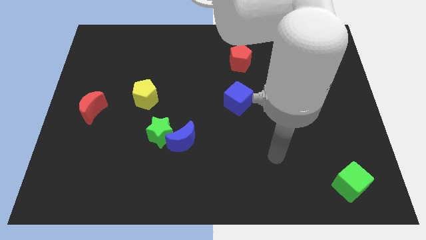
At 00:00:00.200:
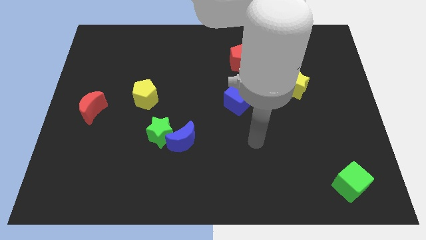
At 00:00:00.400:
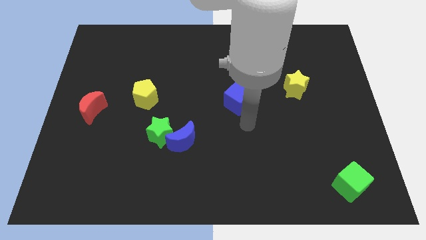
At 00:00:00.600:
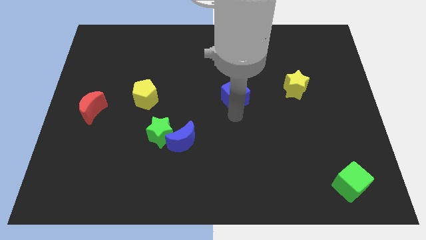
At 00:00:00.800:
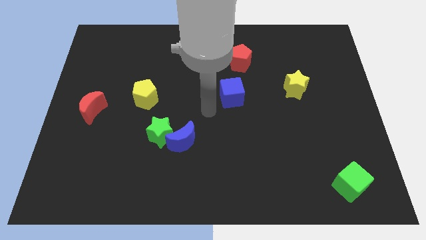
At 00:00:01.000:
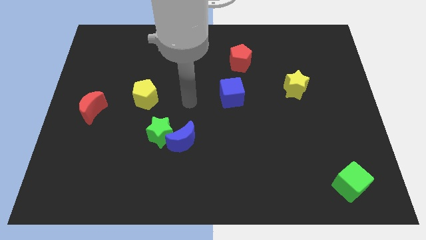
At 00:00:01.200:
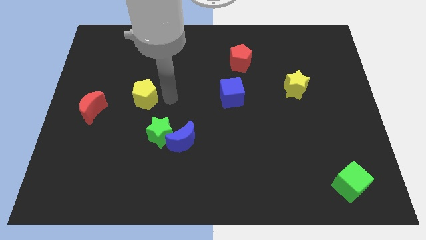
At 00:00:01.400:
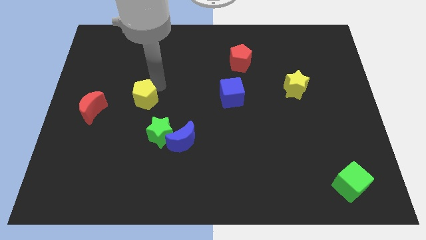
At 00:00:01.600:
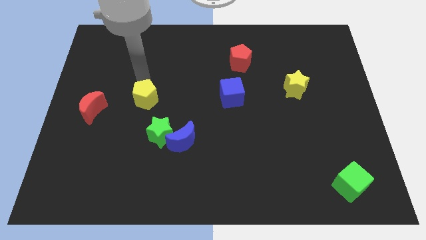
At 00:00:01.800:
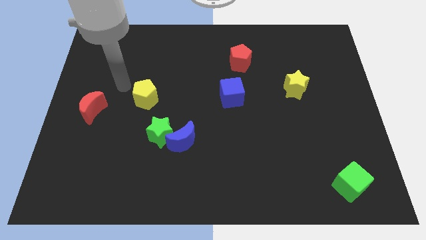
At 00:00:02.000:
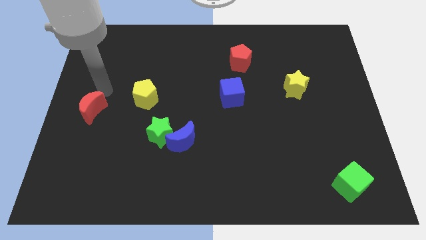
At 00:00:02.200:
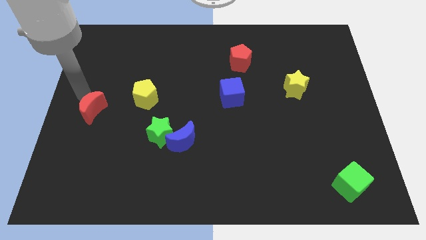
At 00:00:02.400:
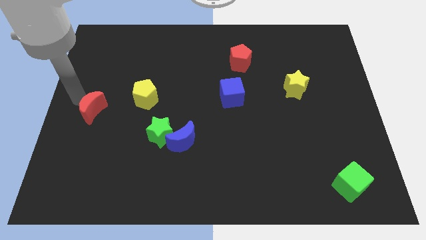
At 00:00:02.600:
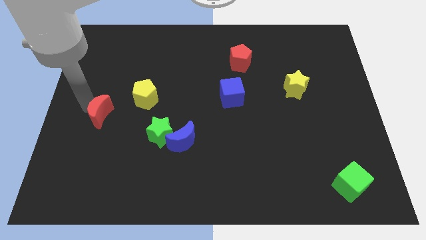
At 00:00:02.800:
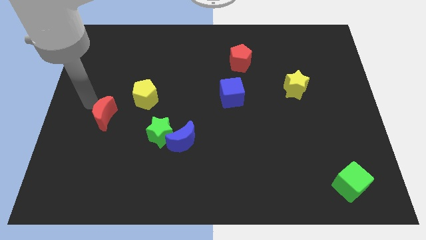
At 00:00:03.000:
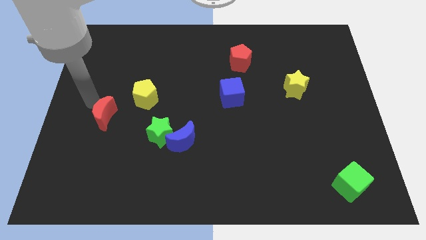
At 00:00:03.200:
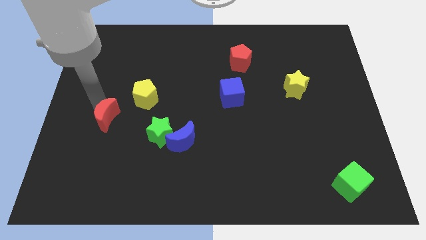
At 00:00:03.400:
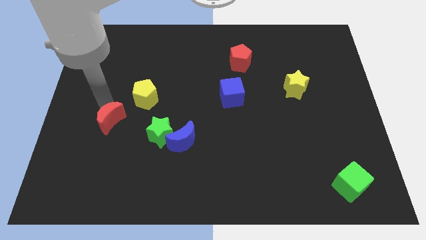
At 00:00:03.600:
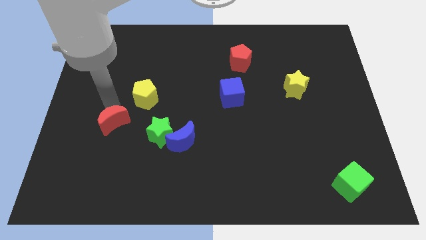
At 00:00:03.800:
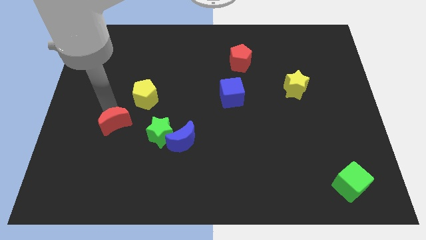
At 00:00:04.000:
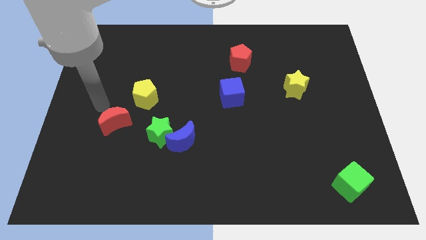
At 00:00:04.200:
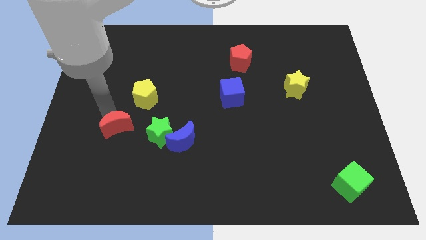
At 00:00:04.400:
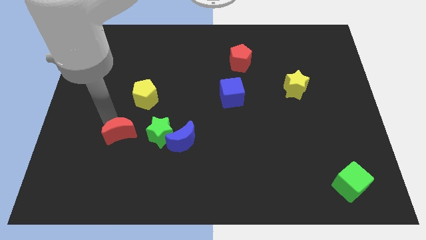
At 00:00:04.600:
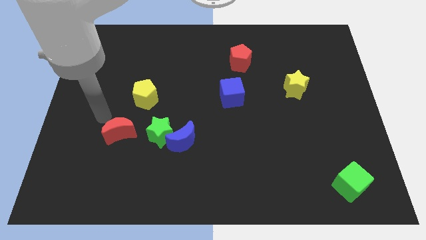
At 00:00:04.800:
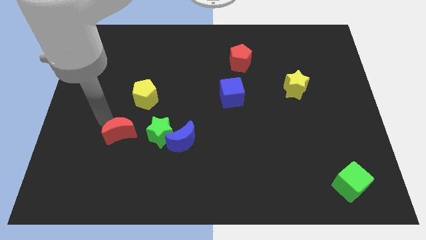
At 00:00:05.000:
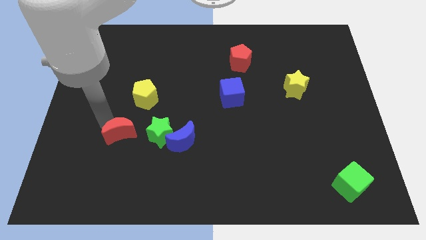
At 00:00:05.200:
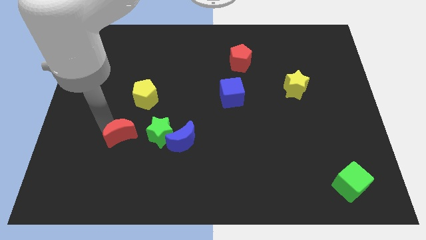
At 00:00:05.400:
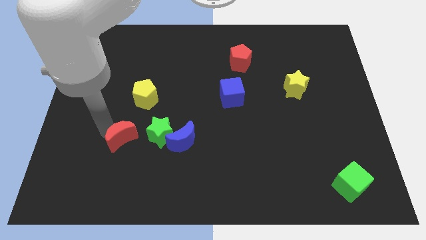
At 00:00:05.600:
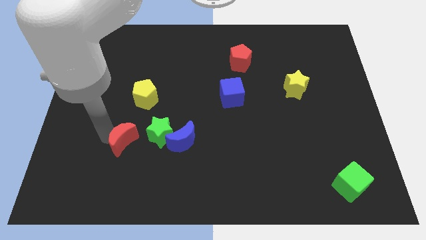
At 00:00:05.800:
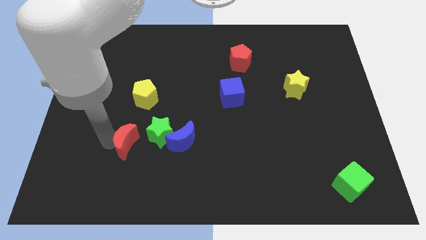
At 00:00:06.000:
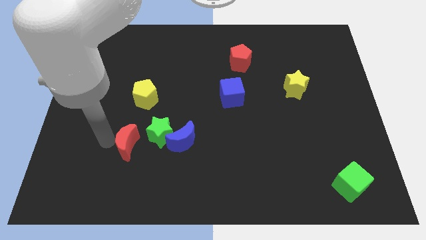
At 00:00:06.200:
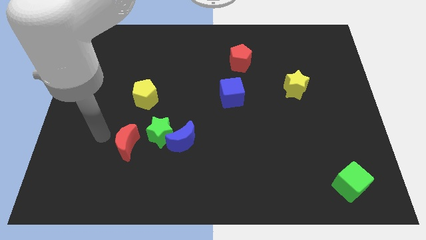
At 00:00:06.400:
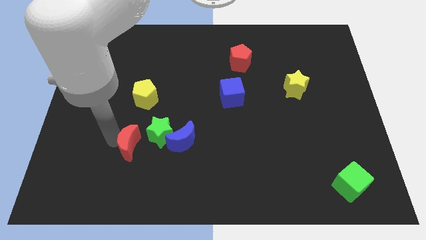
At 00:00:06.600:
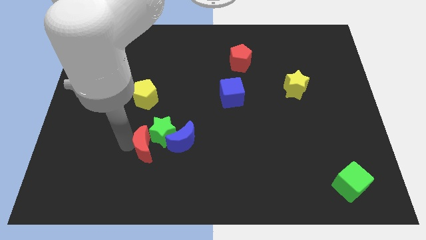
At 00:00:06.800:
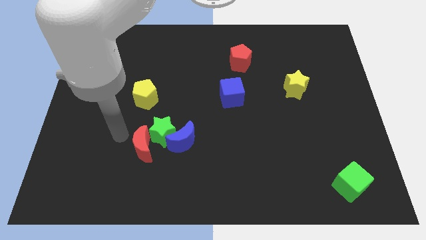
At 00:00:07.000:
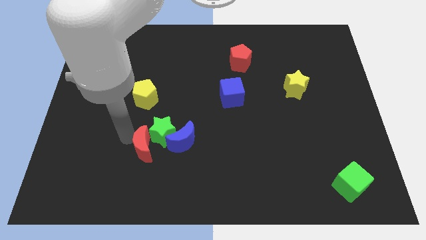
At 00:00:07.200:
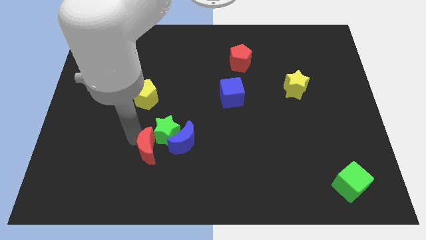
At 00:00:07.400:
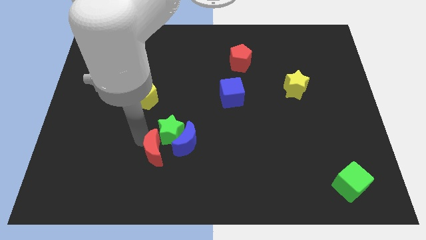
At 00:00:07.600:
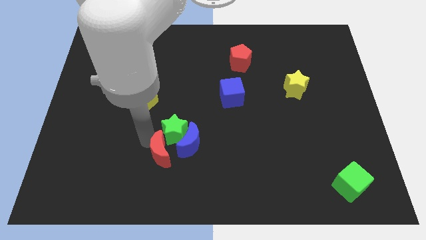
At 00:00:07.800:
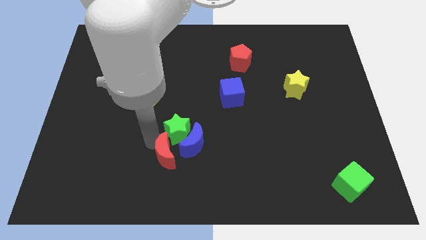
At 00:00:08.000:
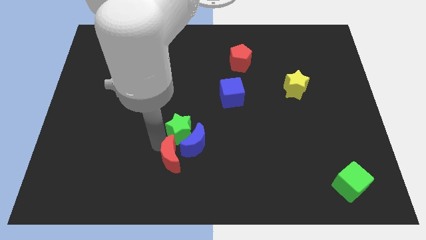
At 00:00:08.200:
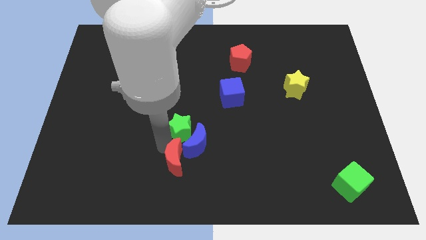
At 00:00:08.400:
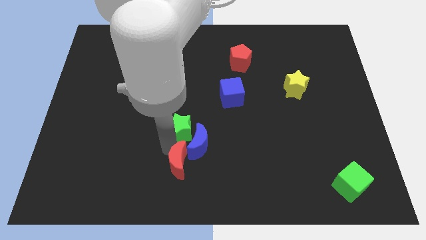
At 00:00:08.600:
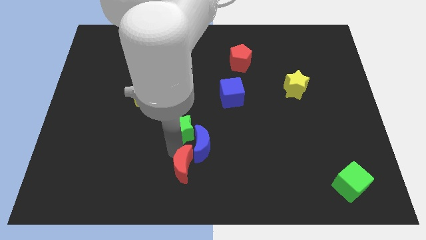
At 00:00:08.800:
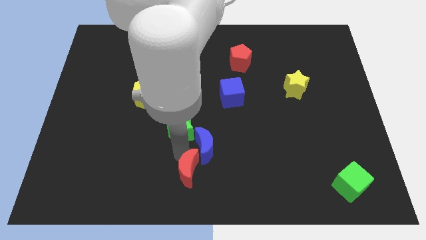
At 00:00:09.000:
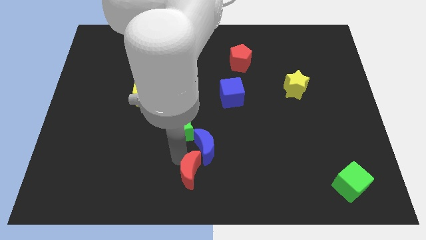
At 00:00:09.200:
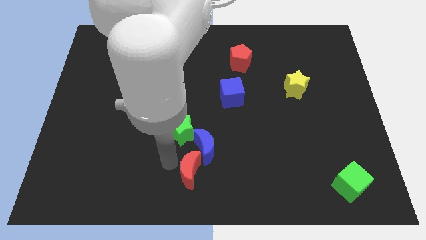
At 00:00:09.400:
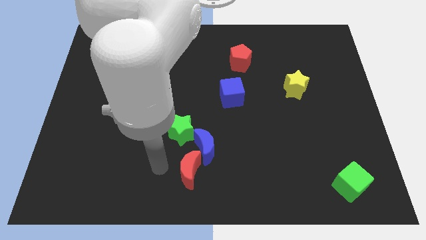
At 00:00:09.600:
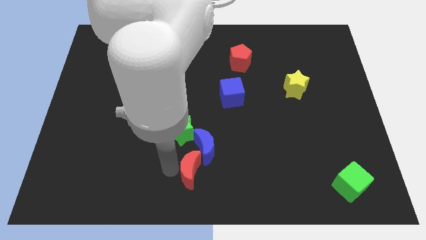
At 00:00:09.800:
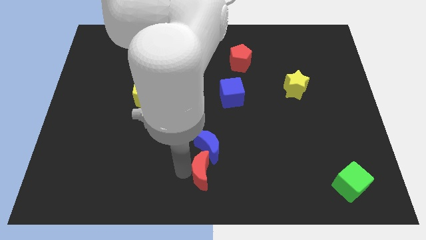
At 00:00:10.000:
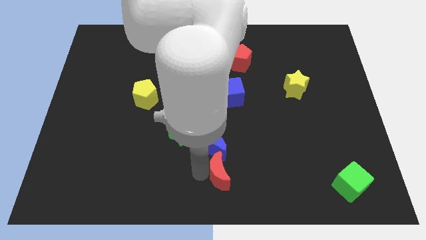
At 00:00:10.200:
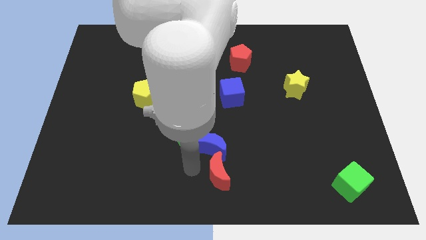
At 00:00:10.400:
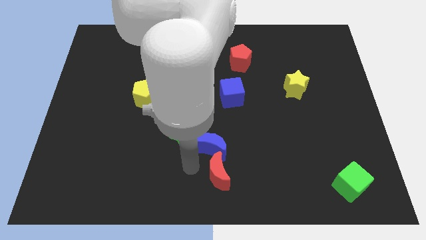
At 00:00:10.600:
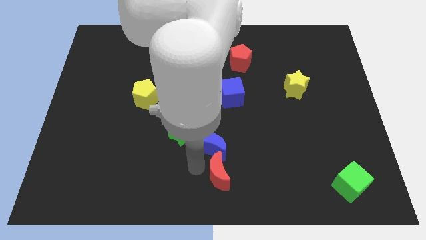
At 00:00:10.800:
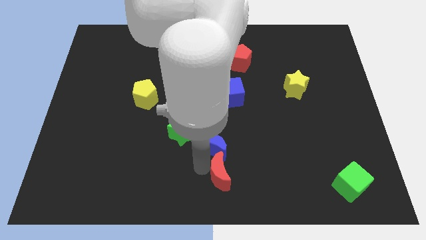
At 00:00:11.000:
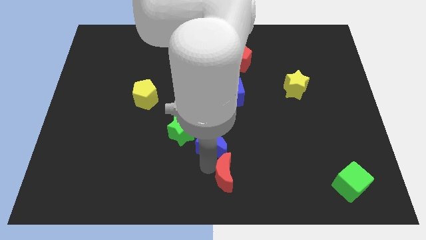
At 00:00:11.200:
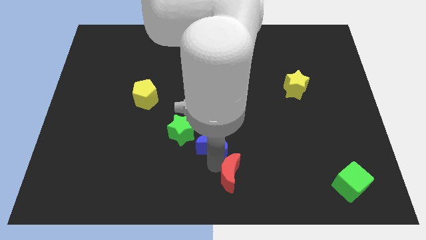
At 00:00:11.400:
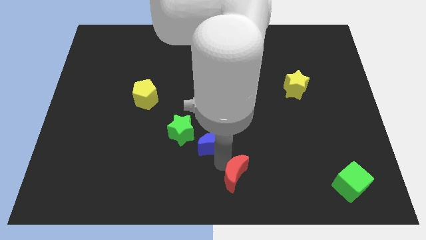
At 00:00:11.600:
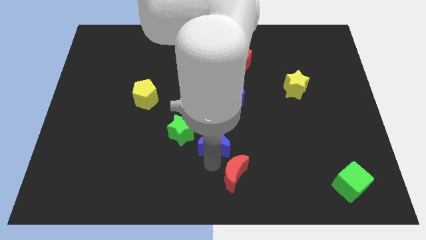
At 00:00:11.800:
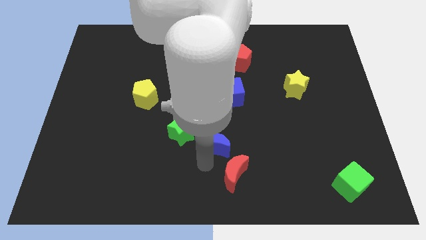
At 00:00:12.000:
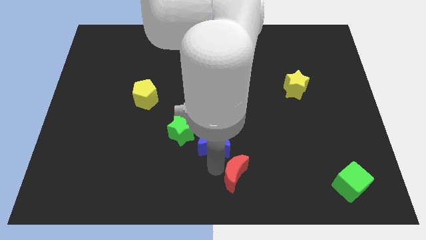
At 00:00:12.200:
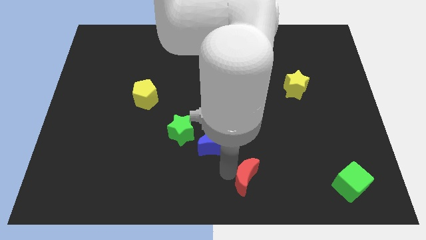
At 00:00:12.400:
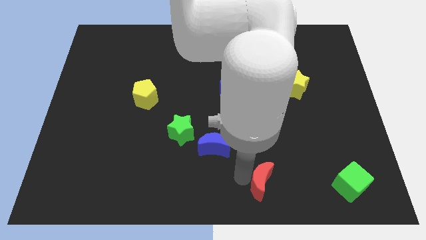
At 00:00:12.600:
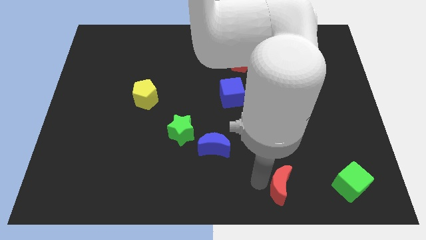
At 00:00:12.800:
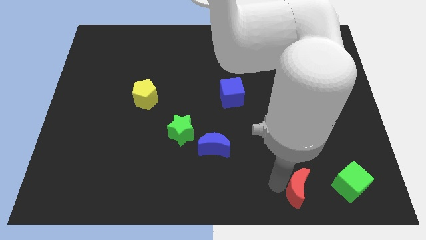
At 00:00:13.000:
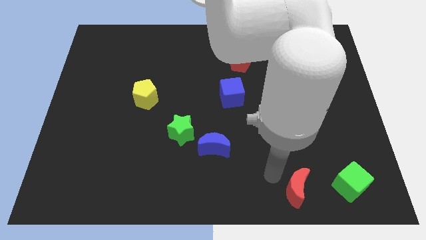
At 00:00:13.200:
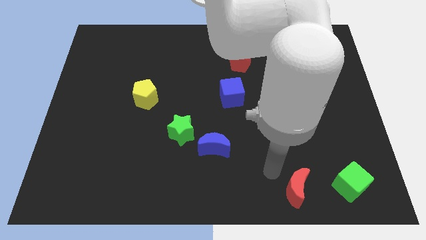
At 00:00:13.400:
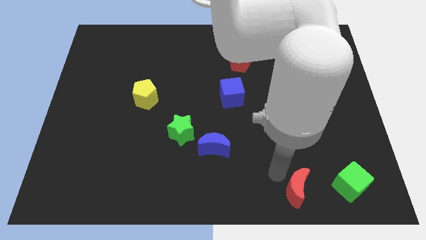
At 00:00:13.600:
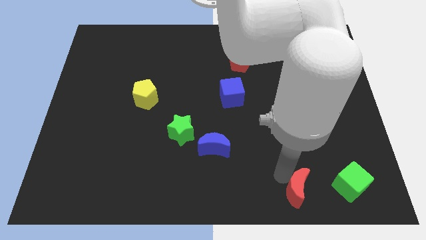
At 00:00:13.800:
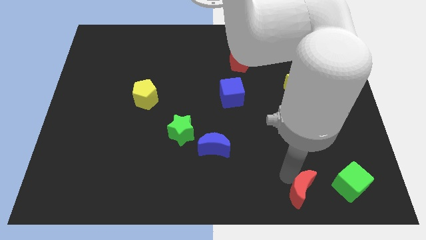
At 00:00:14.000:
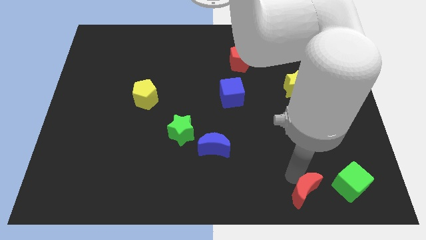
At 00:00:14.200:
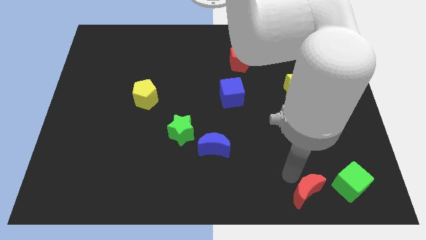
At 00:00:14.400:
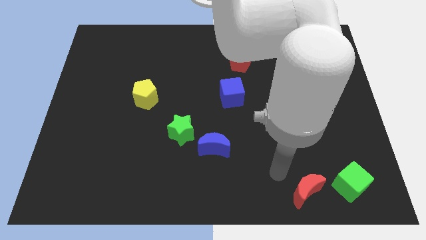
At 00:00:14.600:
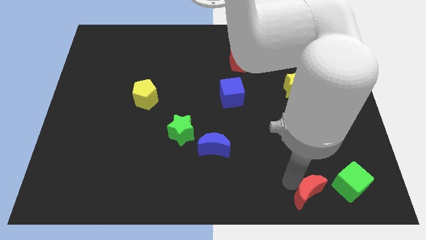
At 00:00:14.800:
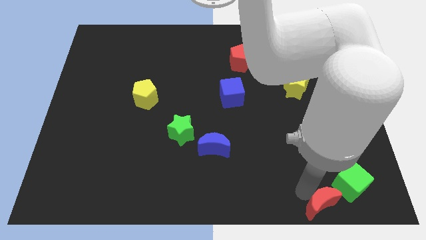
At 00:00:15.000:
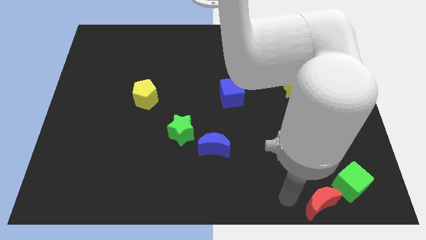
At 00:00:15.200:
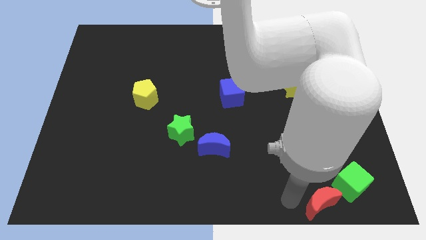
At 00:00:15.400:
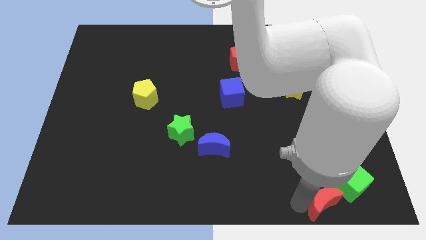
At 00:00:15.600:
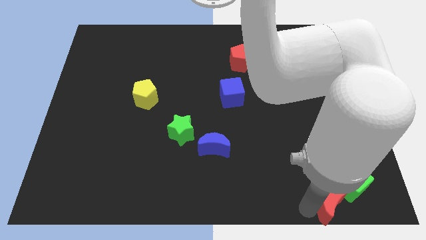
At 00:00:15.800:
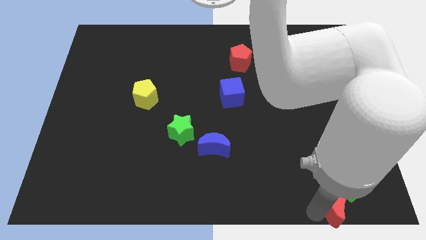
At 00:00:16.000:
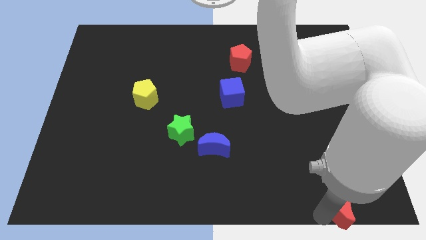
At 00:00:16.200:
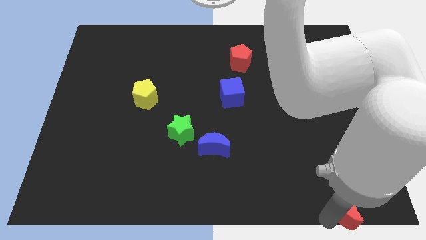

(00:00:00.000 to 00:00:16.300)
put the red moon to the bottom right of the board
